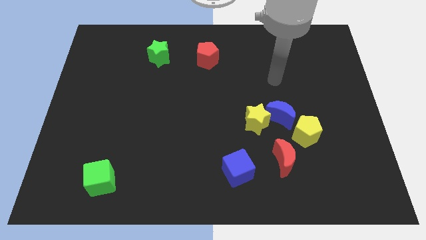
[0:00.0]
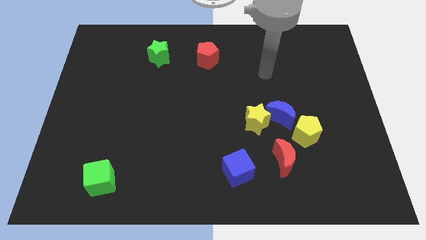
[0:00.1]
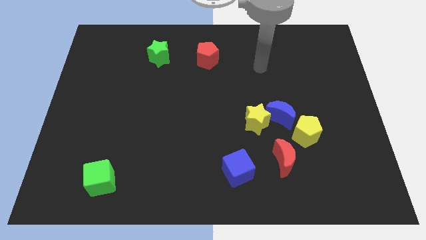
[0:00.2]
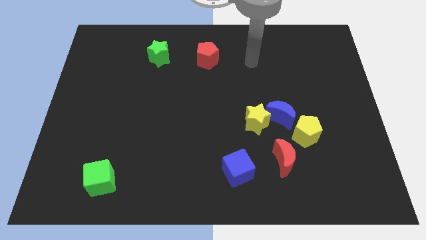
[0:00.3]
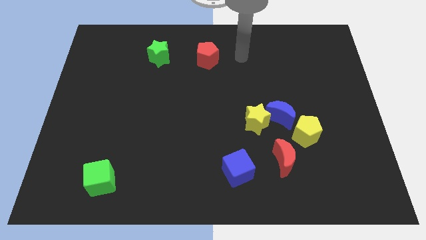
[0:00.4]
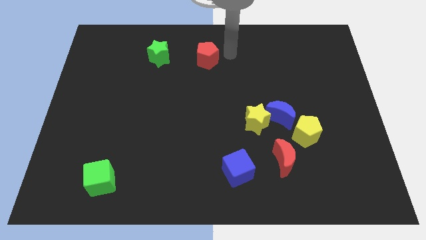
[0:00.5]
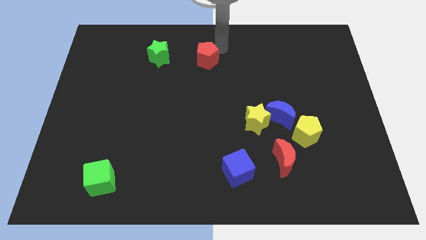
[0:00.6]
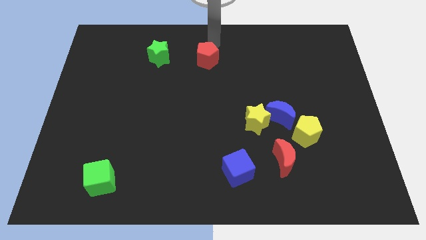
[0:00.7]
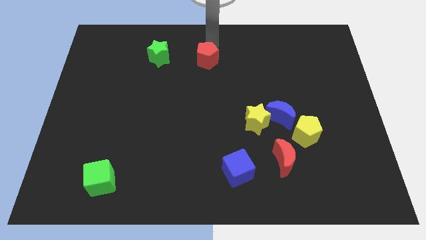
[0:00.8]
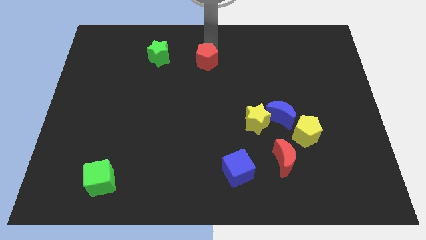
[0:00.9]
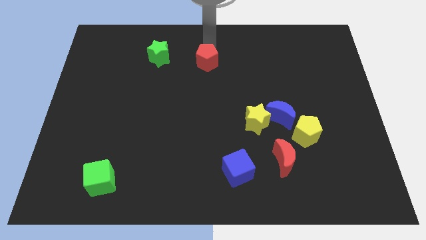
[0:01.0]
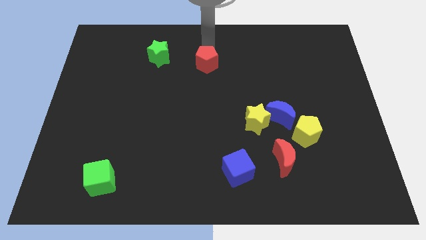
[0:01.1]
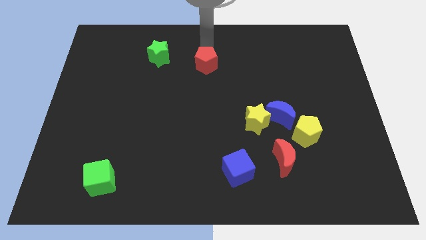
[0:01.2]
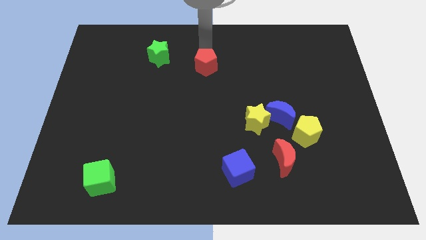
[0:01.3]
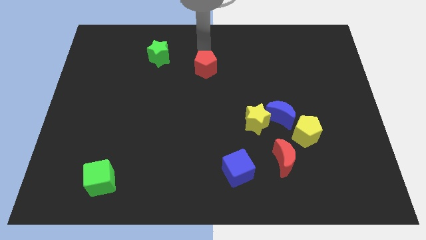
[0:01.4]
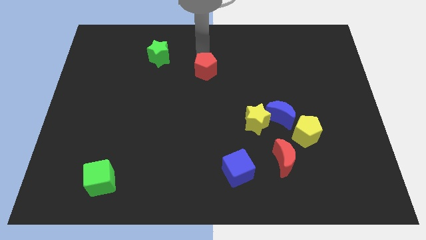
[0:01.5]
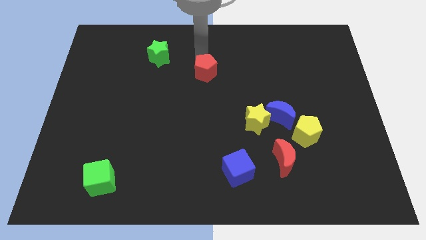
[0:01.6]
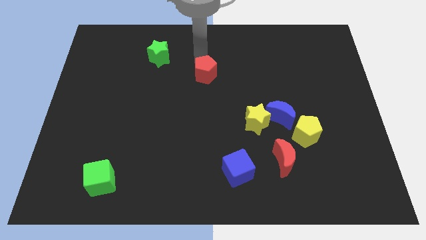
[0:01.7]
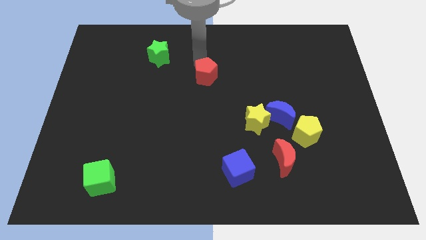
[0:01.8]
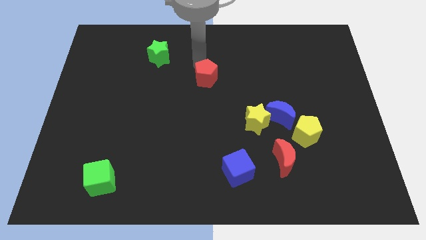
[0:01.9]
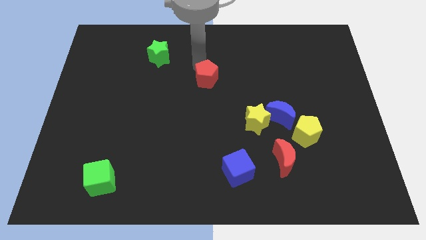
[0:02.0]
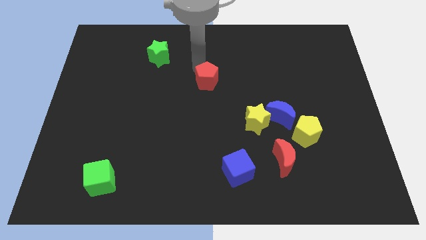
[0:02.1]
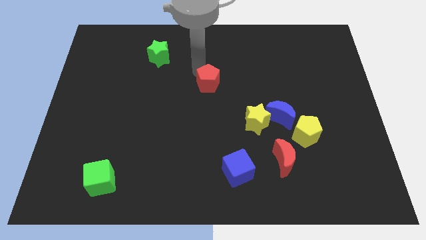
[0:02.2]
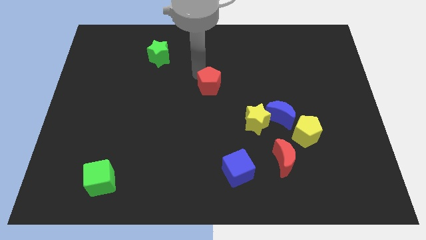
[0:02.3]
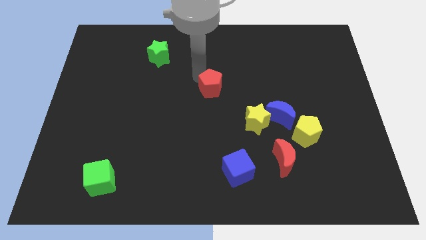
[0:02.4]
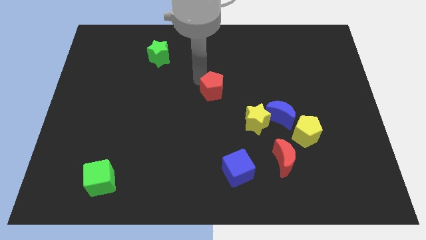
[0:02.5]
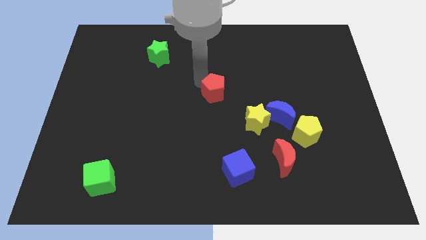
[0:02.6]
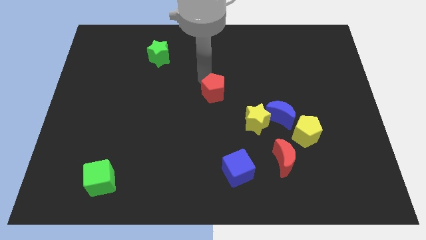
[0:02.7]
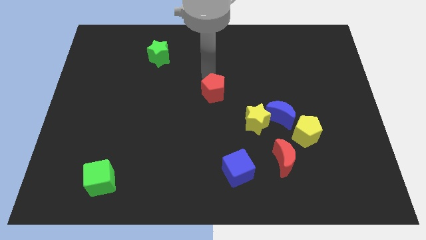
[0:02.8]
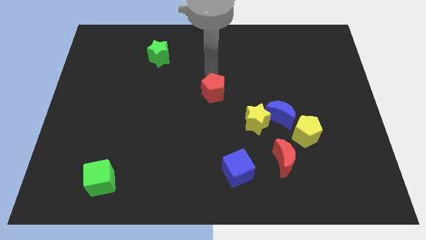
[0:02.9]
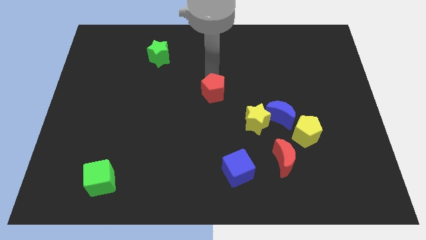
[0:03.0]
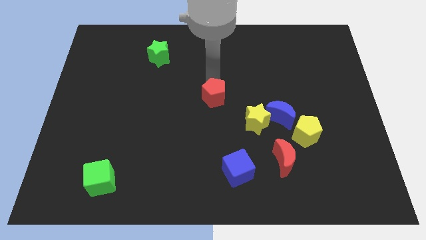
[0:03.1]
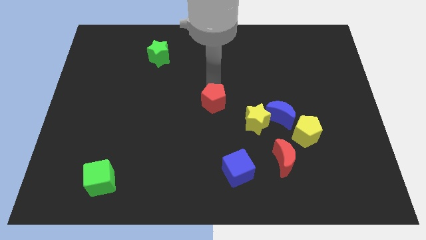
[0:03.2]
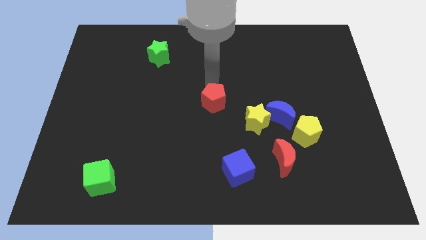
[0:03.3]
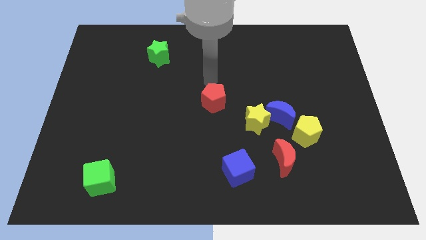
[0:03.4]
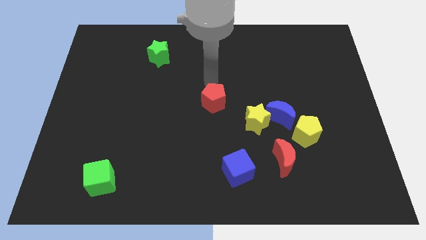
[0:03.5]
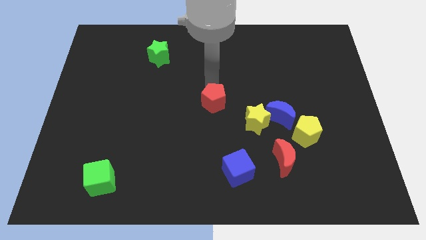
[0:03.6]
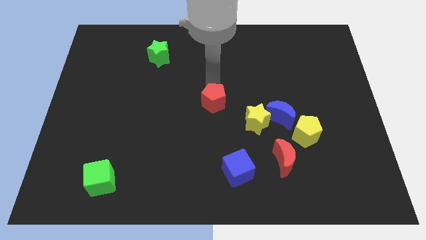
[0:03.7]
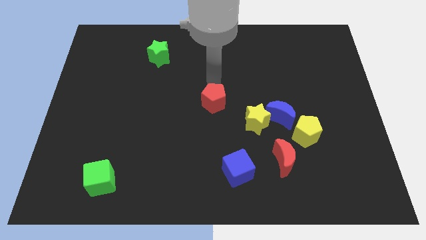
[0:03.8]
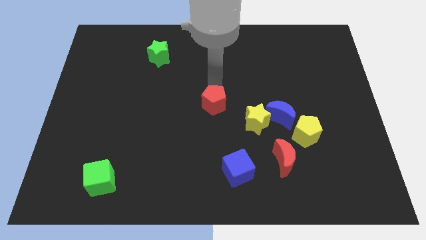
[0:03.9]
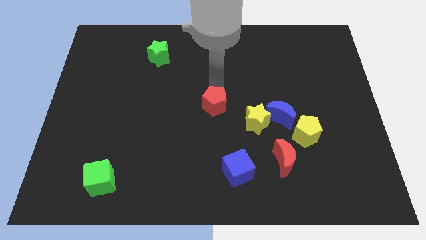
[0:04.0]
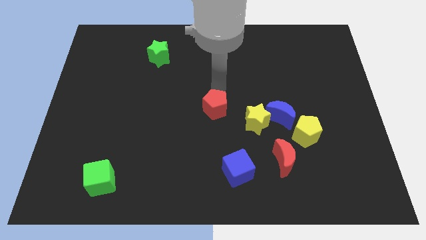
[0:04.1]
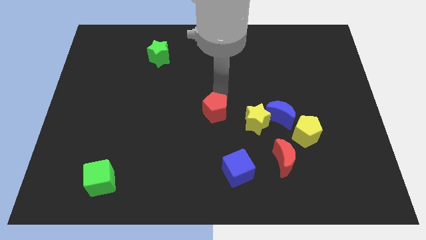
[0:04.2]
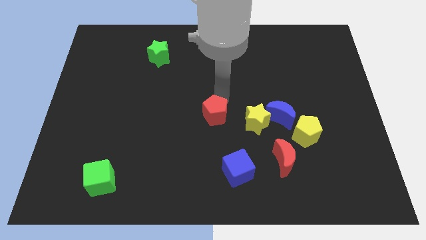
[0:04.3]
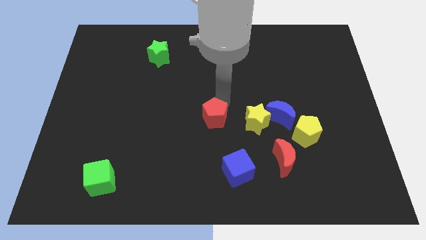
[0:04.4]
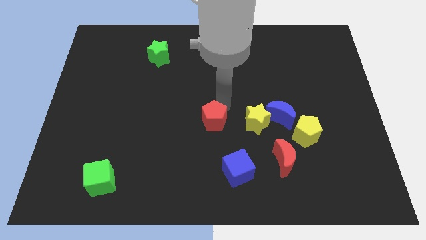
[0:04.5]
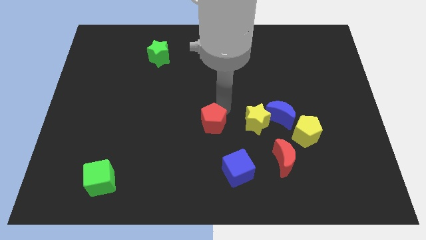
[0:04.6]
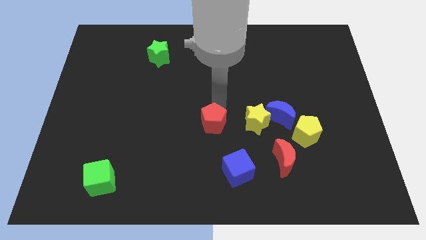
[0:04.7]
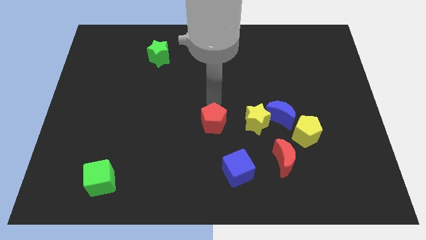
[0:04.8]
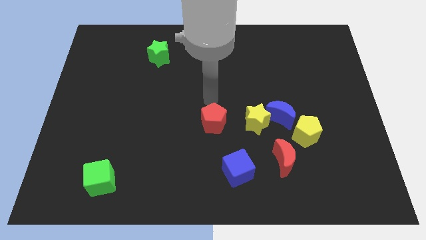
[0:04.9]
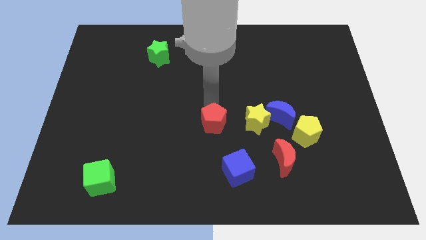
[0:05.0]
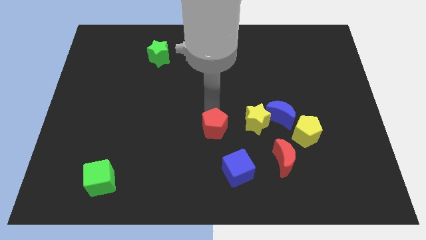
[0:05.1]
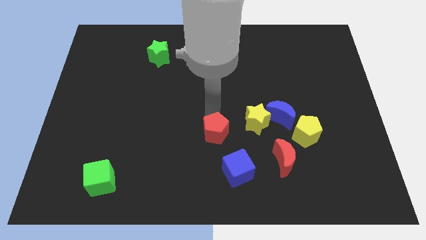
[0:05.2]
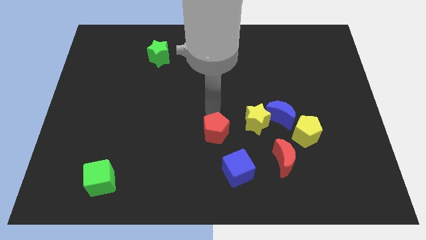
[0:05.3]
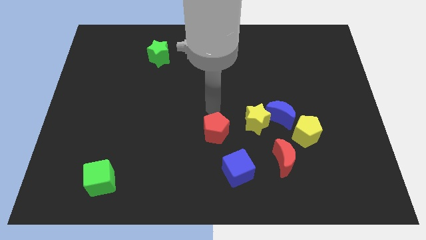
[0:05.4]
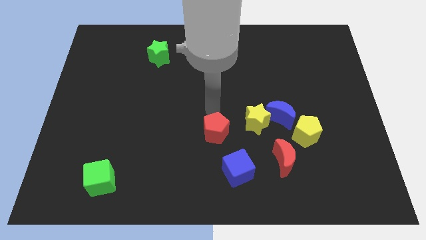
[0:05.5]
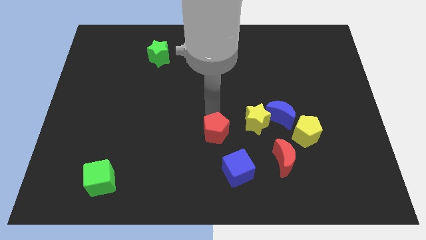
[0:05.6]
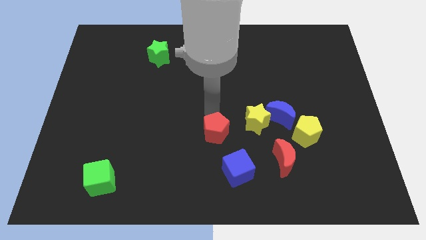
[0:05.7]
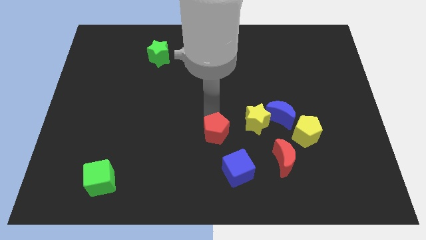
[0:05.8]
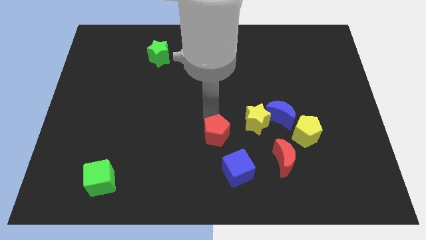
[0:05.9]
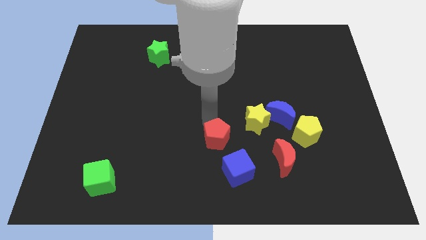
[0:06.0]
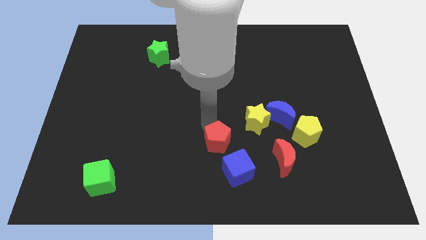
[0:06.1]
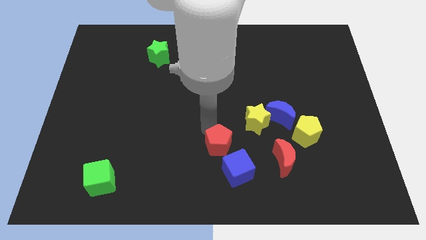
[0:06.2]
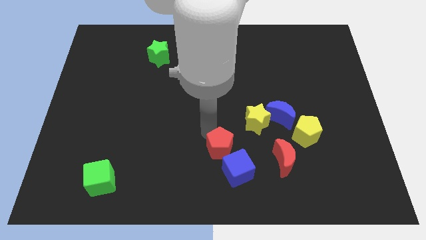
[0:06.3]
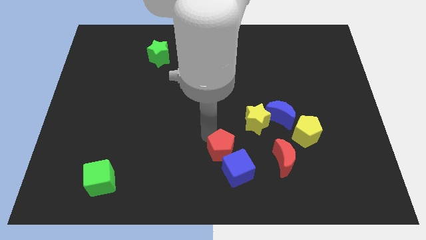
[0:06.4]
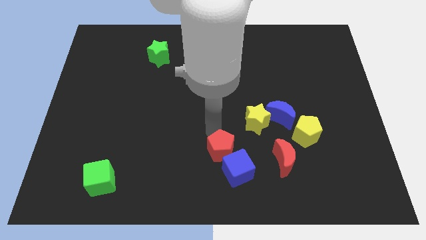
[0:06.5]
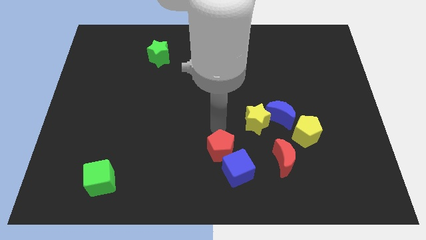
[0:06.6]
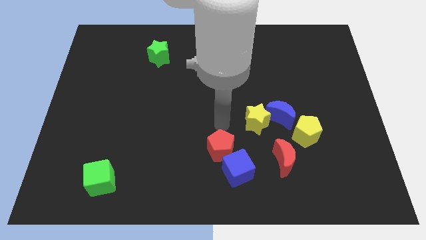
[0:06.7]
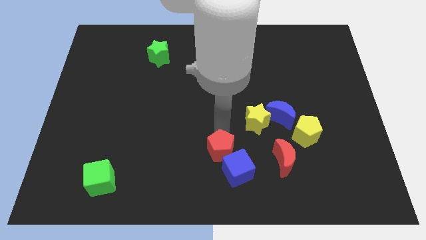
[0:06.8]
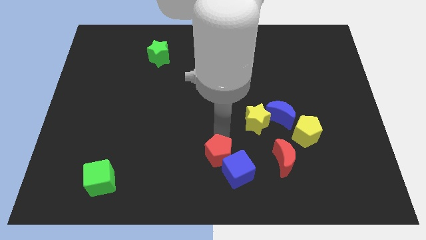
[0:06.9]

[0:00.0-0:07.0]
slide the red pentagon to the bottom
